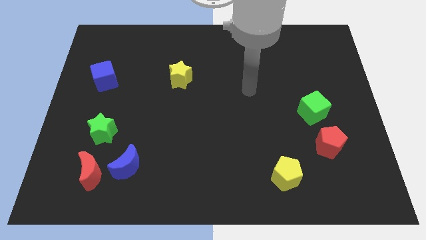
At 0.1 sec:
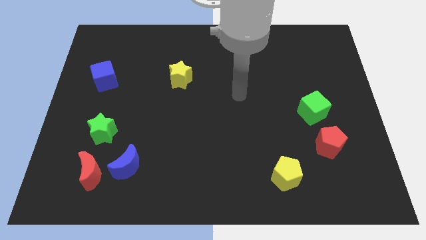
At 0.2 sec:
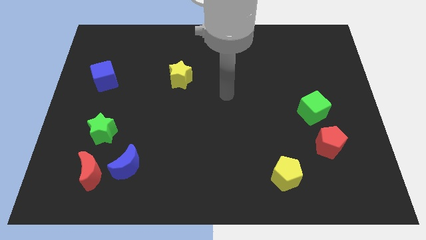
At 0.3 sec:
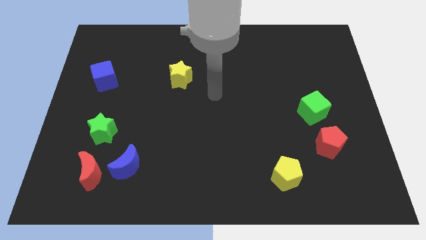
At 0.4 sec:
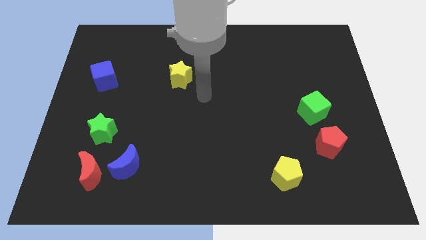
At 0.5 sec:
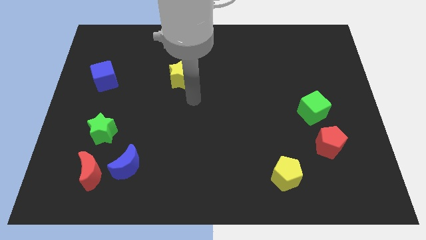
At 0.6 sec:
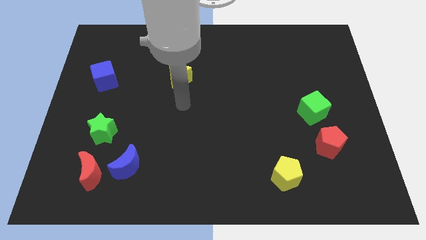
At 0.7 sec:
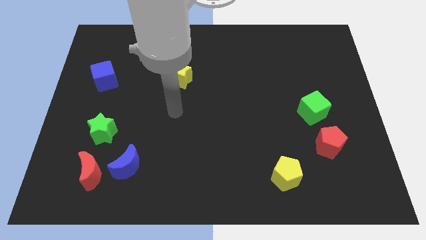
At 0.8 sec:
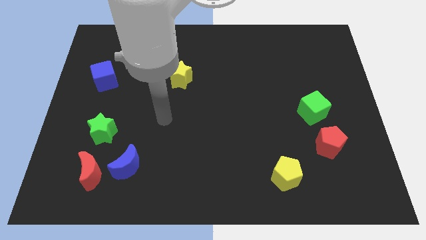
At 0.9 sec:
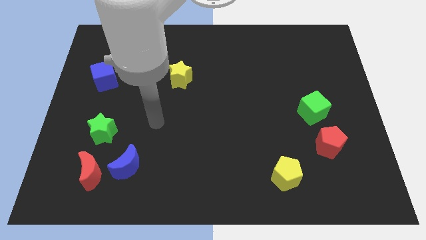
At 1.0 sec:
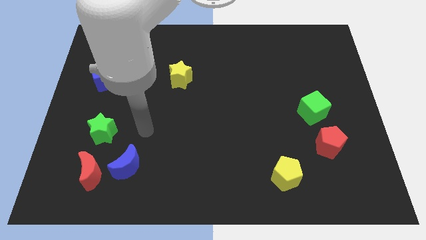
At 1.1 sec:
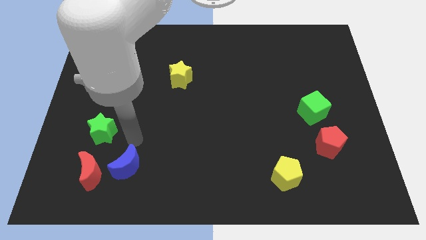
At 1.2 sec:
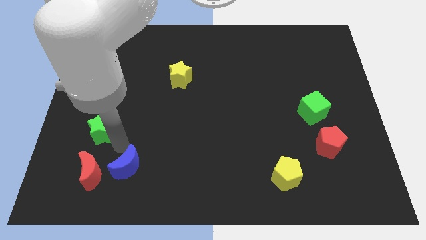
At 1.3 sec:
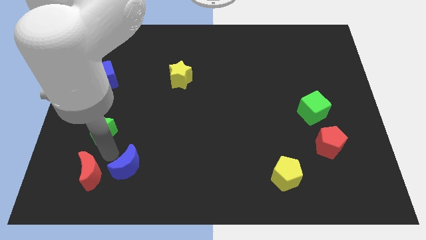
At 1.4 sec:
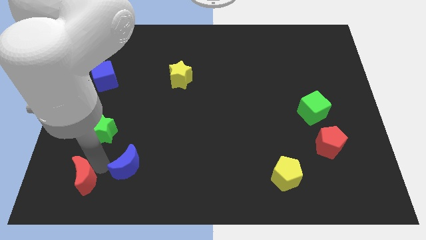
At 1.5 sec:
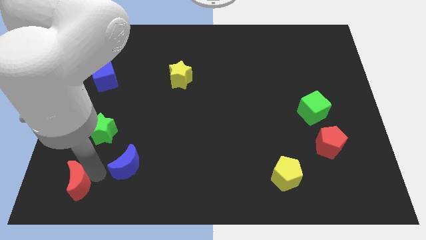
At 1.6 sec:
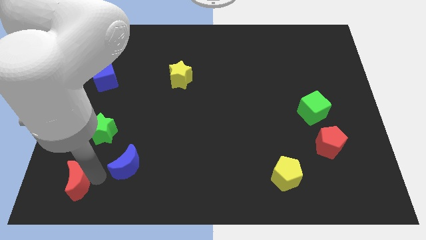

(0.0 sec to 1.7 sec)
move the blue moon away from the red moon

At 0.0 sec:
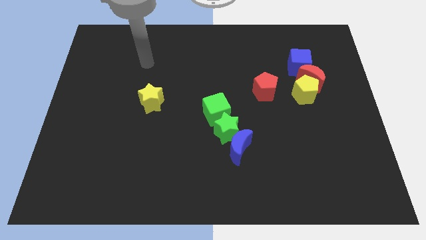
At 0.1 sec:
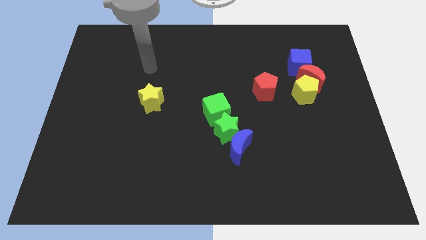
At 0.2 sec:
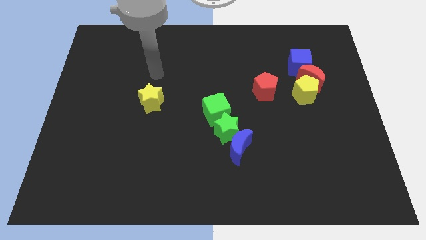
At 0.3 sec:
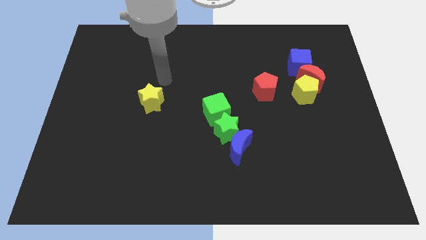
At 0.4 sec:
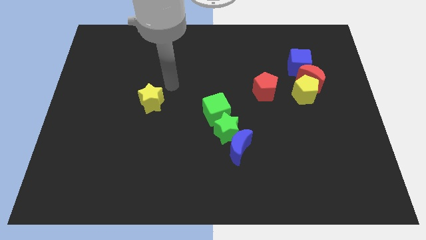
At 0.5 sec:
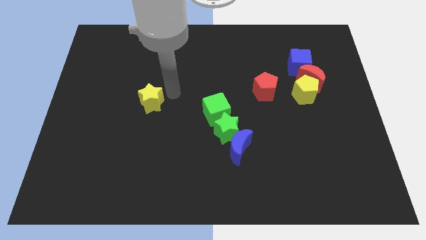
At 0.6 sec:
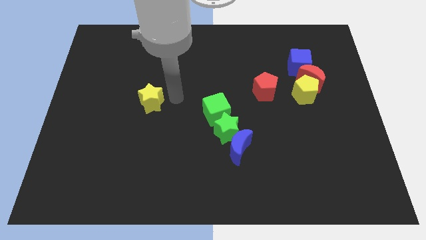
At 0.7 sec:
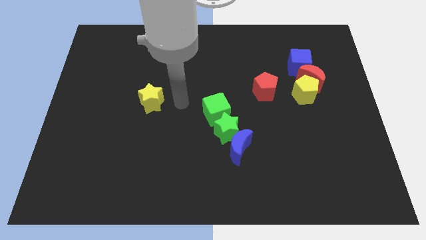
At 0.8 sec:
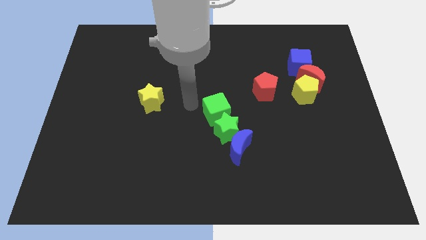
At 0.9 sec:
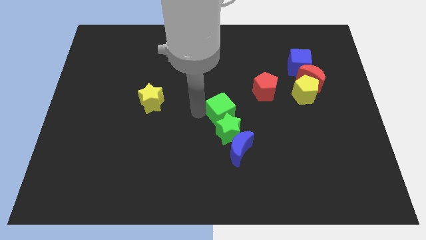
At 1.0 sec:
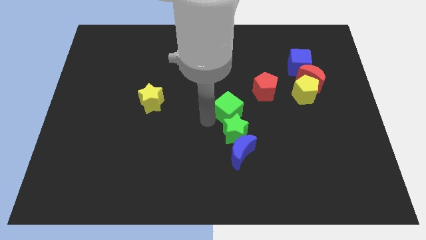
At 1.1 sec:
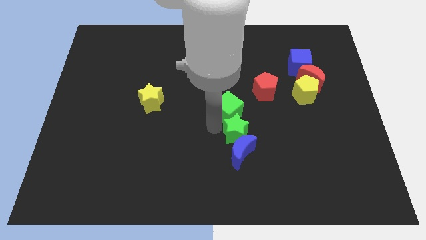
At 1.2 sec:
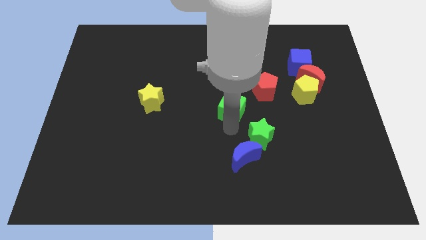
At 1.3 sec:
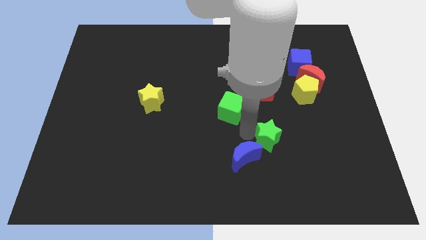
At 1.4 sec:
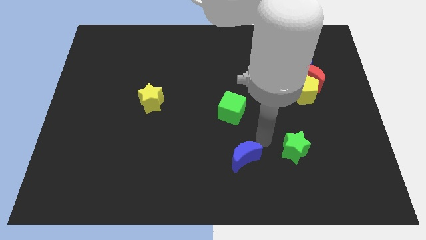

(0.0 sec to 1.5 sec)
pull the blue moon apart from the green star

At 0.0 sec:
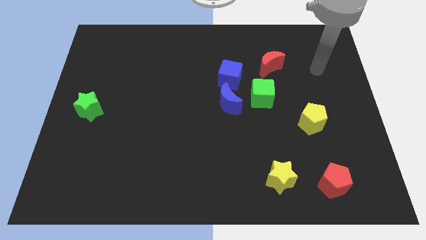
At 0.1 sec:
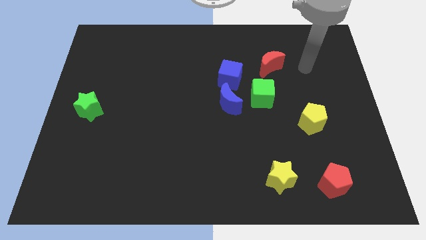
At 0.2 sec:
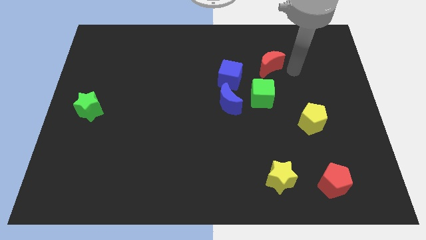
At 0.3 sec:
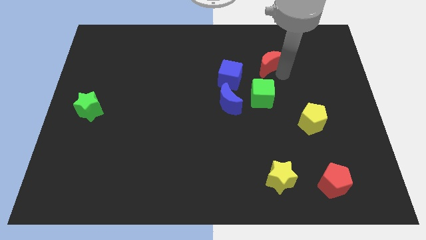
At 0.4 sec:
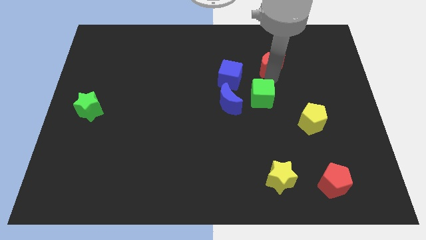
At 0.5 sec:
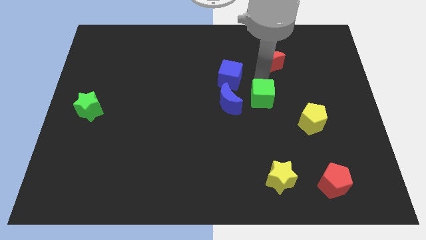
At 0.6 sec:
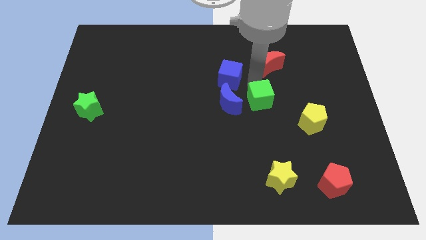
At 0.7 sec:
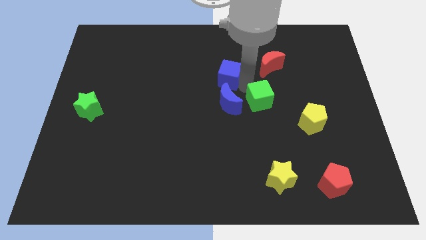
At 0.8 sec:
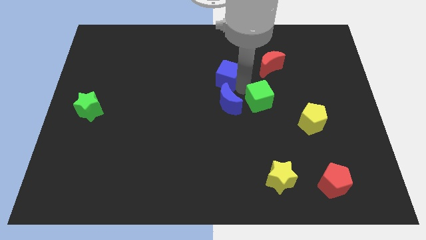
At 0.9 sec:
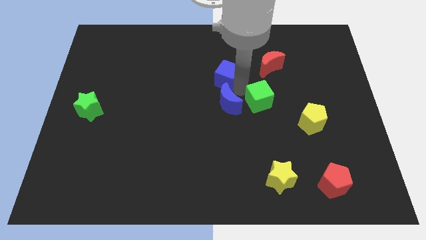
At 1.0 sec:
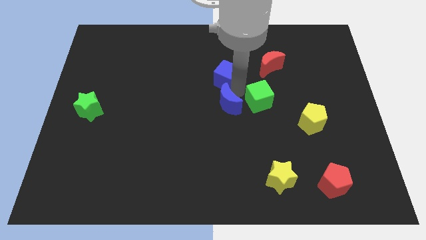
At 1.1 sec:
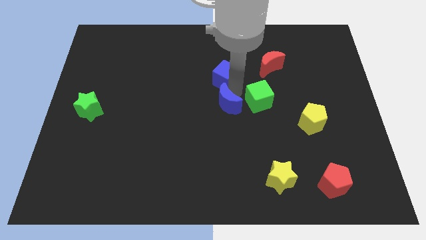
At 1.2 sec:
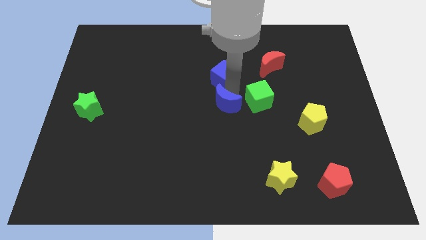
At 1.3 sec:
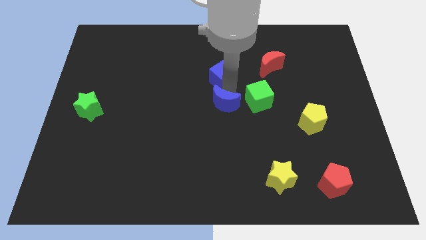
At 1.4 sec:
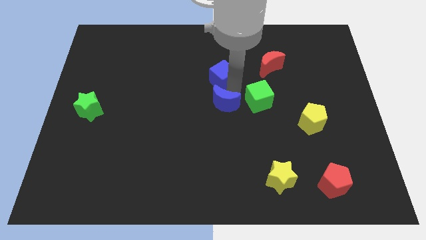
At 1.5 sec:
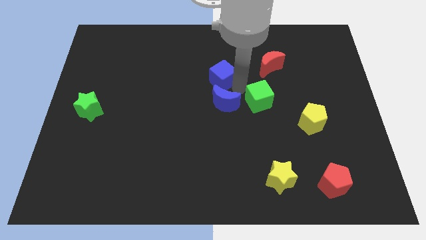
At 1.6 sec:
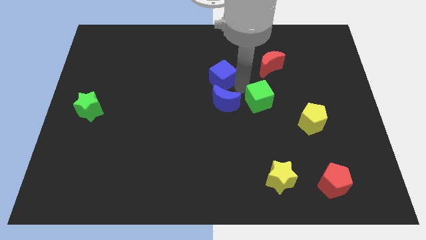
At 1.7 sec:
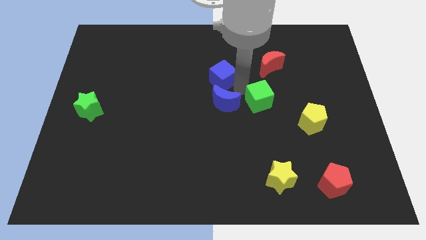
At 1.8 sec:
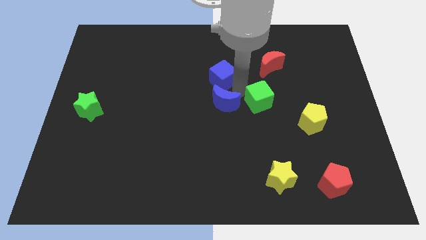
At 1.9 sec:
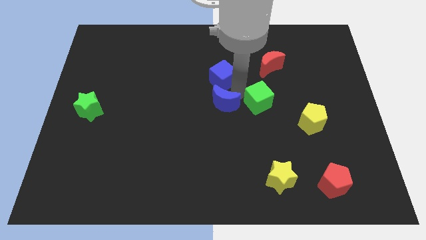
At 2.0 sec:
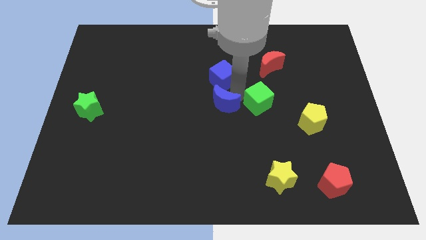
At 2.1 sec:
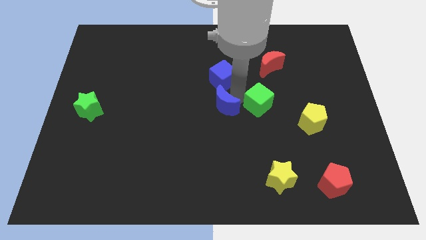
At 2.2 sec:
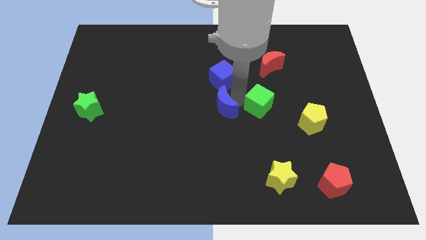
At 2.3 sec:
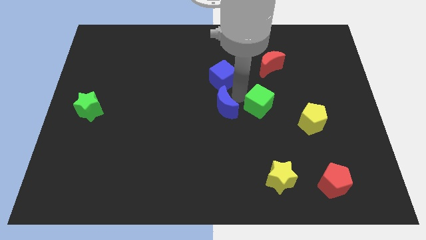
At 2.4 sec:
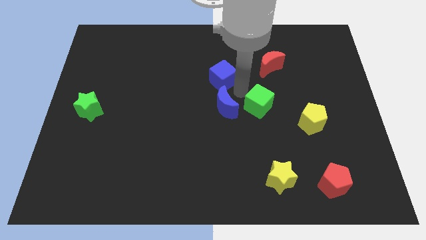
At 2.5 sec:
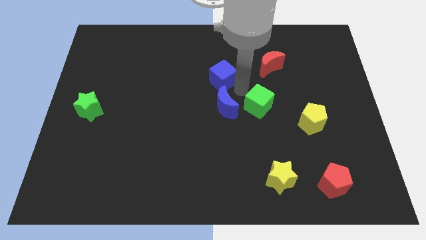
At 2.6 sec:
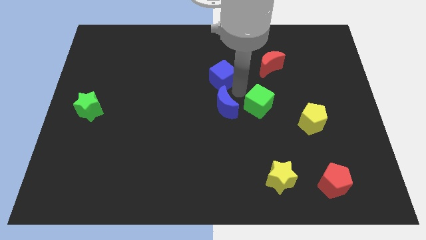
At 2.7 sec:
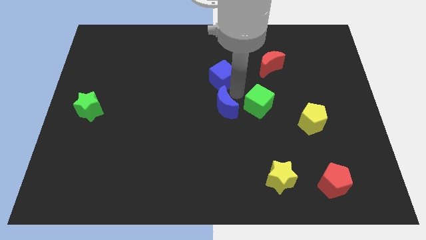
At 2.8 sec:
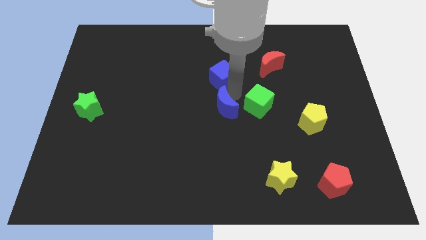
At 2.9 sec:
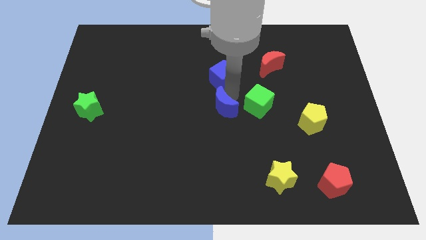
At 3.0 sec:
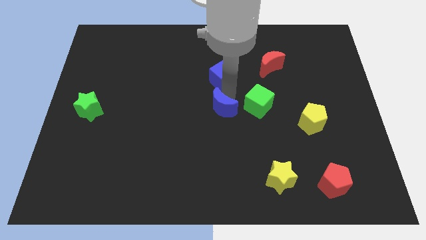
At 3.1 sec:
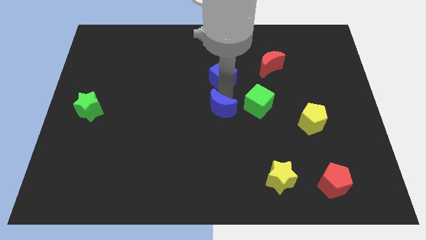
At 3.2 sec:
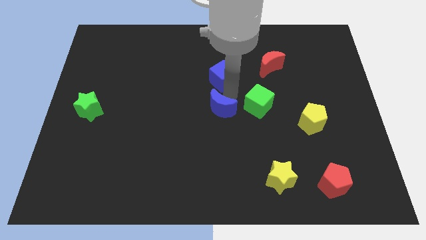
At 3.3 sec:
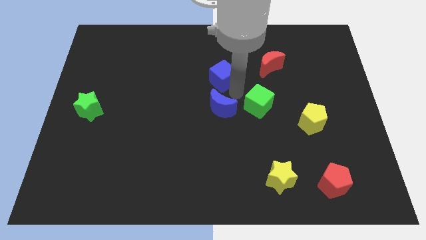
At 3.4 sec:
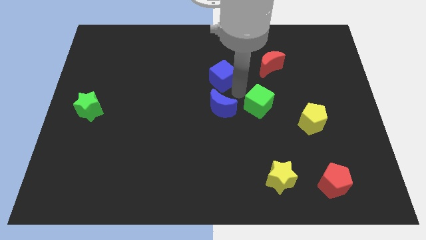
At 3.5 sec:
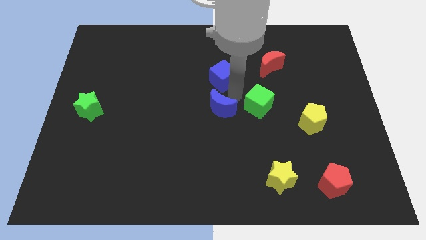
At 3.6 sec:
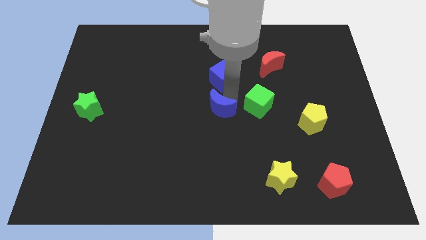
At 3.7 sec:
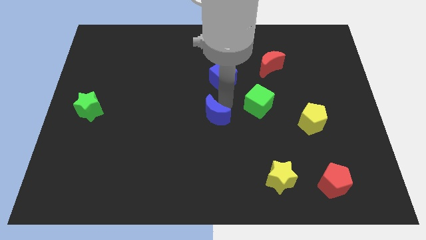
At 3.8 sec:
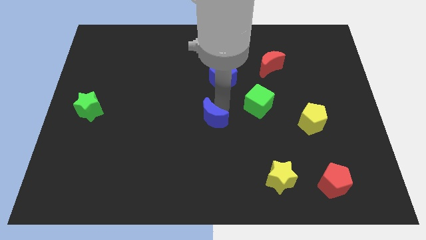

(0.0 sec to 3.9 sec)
separate the blue moon from the blue cube and green cube

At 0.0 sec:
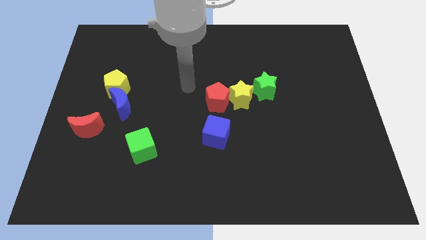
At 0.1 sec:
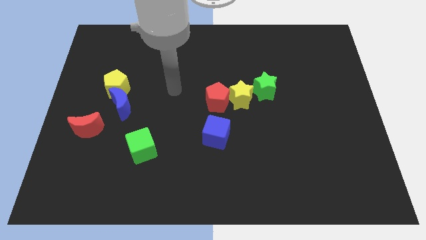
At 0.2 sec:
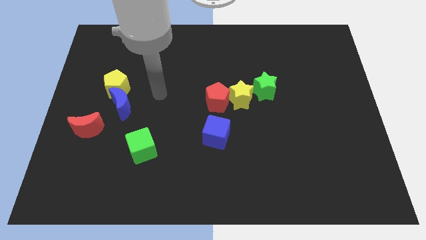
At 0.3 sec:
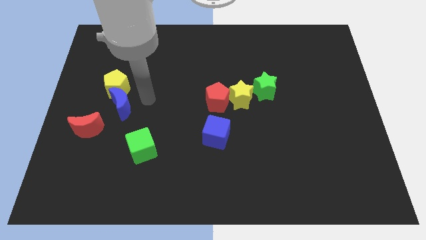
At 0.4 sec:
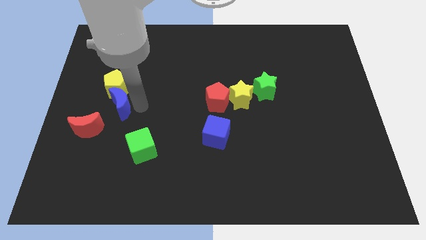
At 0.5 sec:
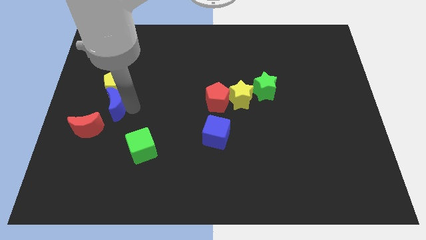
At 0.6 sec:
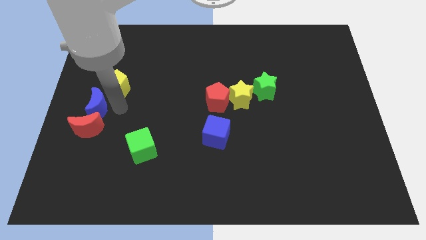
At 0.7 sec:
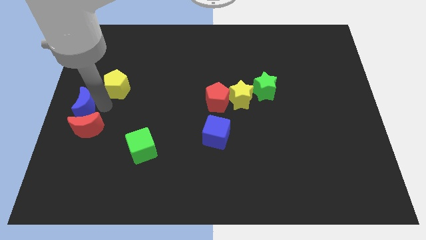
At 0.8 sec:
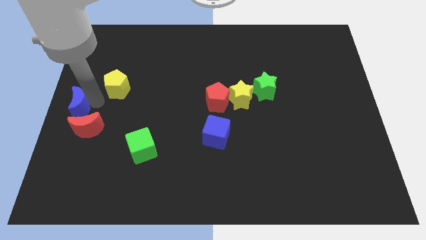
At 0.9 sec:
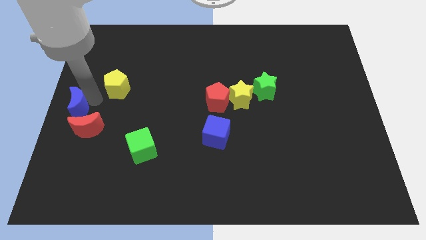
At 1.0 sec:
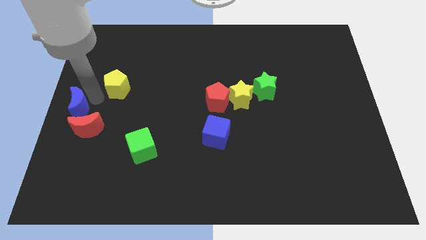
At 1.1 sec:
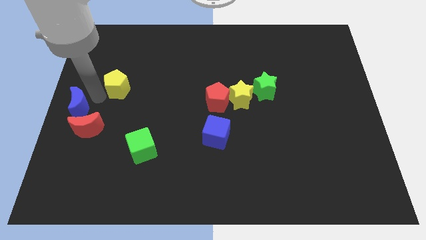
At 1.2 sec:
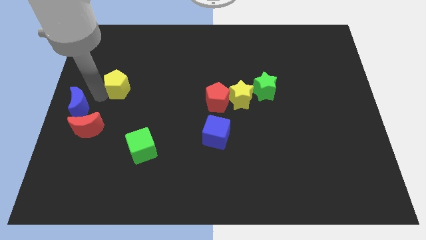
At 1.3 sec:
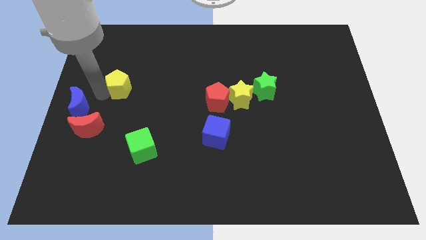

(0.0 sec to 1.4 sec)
pull the yellow pentagon apart from the blue moon

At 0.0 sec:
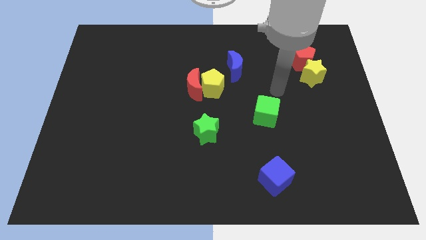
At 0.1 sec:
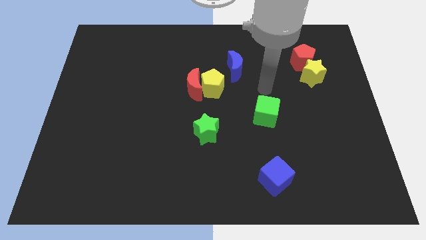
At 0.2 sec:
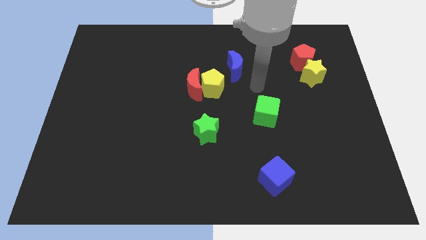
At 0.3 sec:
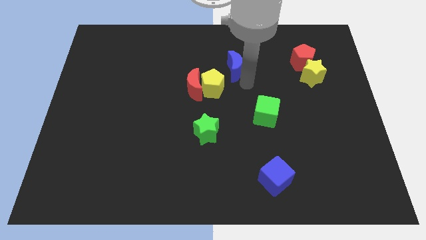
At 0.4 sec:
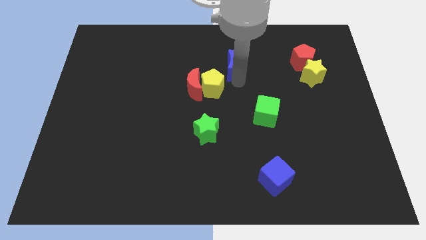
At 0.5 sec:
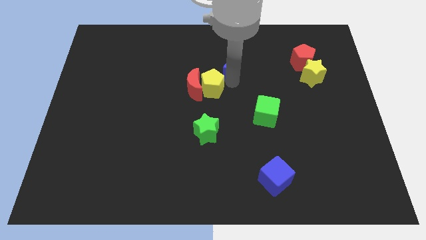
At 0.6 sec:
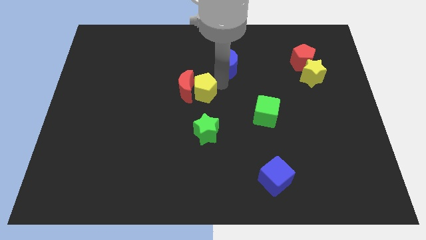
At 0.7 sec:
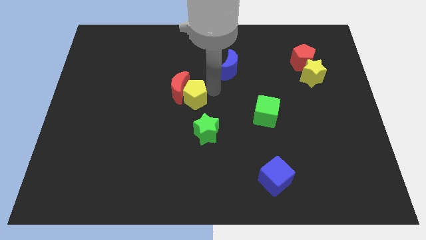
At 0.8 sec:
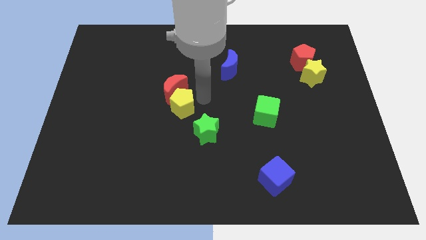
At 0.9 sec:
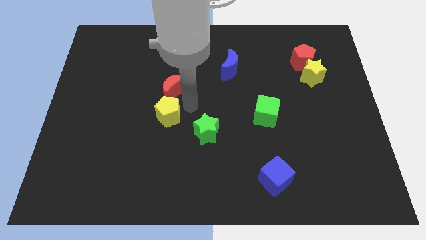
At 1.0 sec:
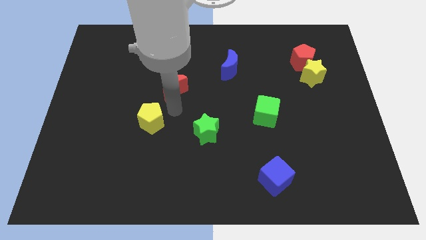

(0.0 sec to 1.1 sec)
pull the red moon apart from the yellow pentagon
